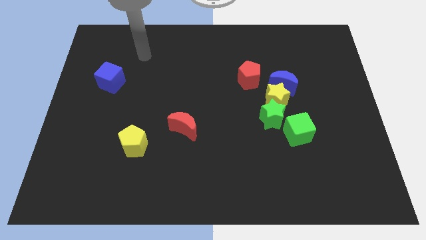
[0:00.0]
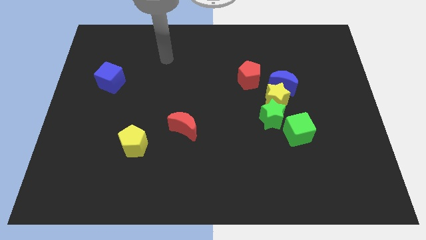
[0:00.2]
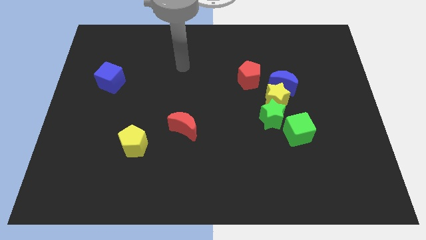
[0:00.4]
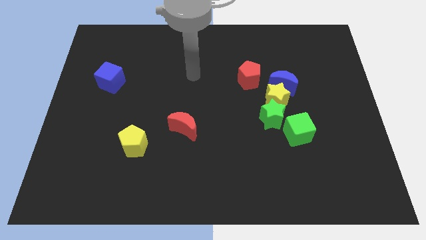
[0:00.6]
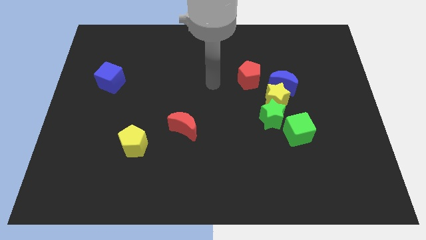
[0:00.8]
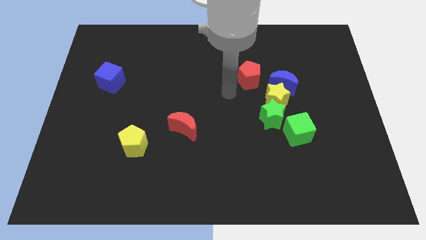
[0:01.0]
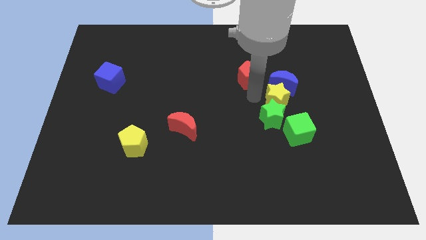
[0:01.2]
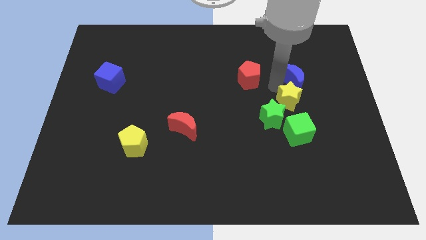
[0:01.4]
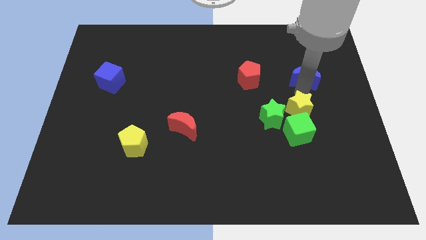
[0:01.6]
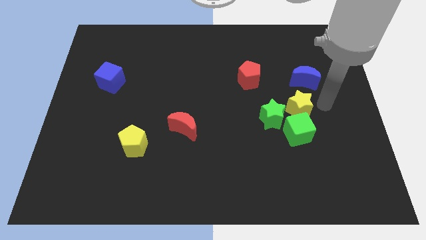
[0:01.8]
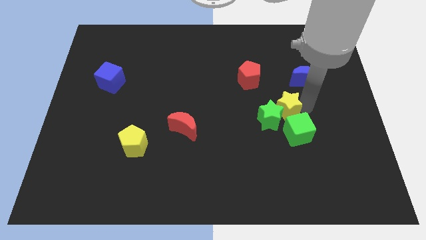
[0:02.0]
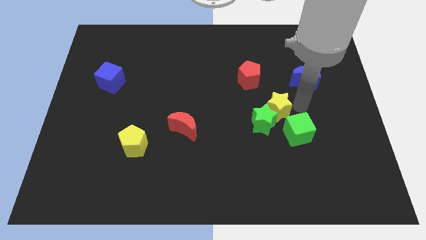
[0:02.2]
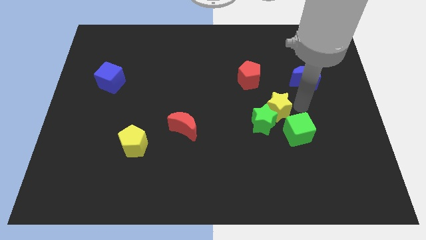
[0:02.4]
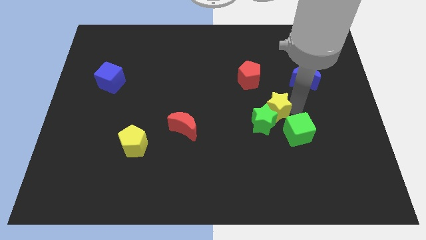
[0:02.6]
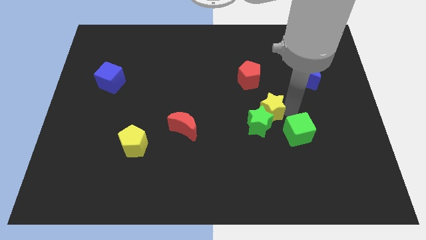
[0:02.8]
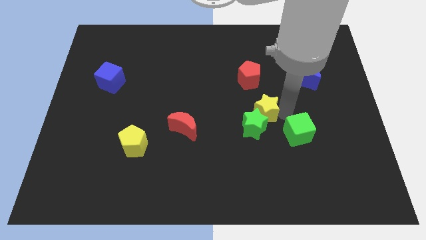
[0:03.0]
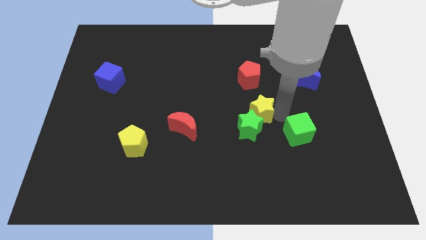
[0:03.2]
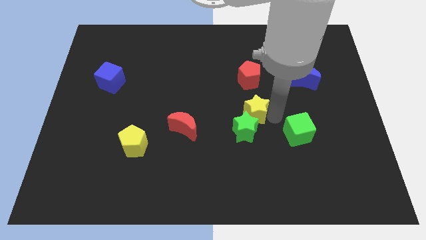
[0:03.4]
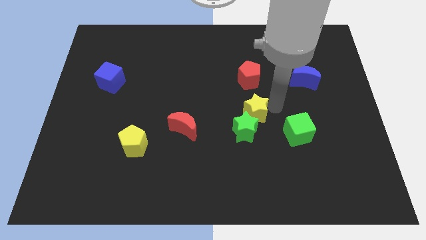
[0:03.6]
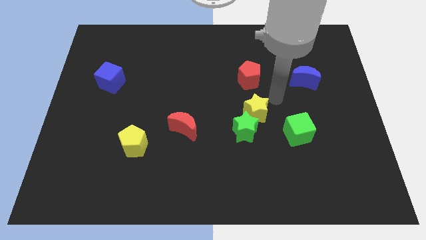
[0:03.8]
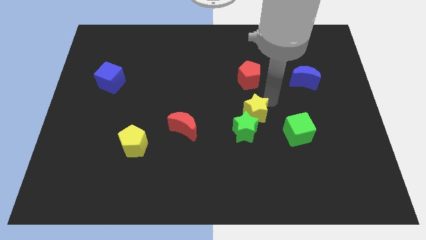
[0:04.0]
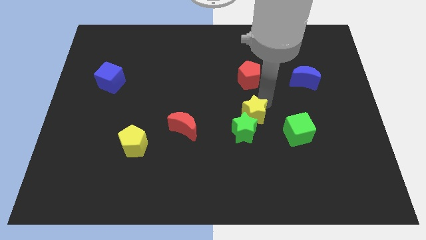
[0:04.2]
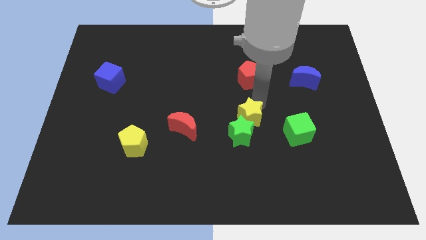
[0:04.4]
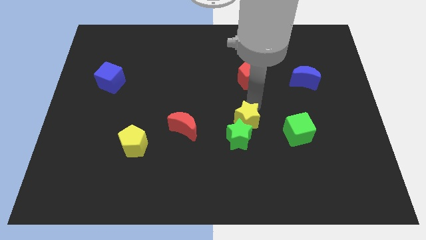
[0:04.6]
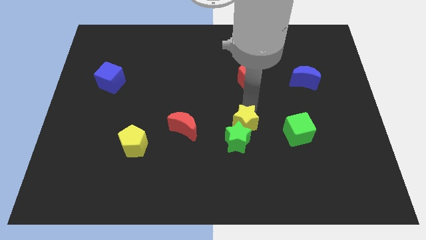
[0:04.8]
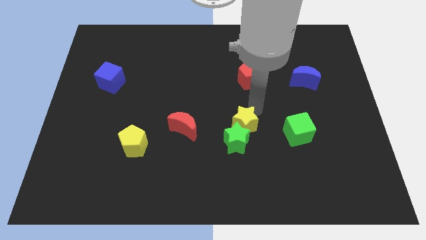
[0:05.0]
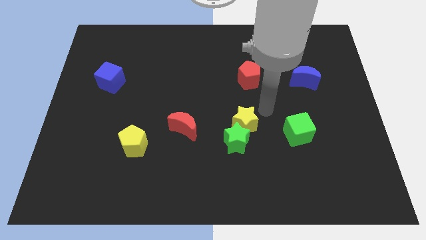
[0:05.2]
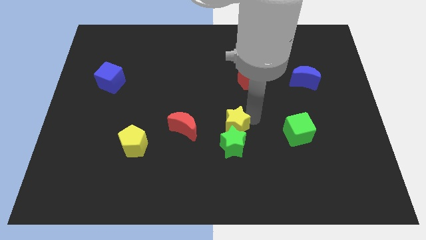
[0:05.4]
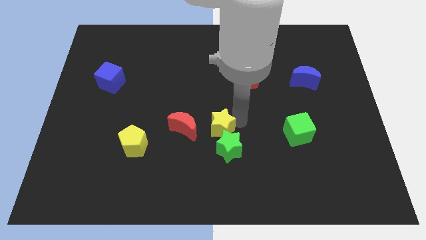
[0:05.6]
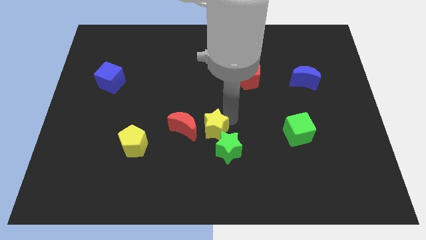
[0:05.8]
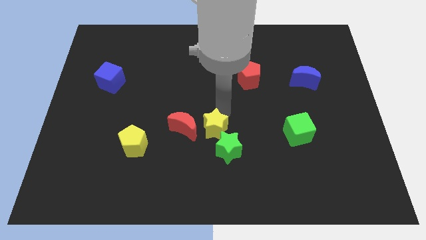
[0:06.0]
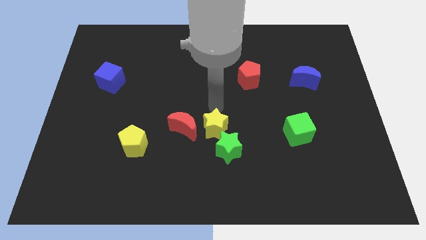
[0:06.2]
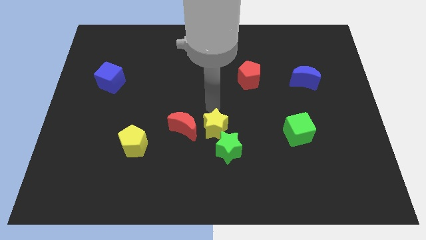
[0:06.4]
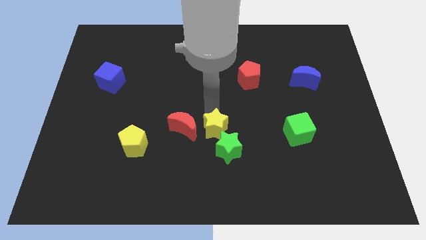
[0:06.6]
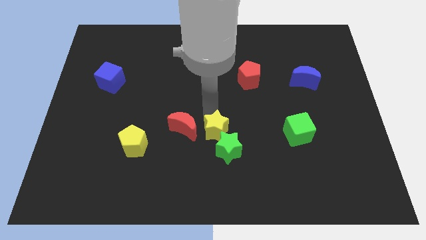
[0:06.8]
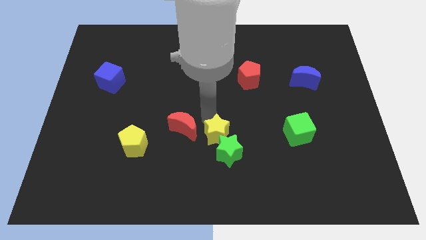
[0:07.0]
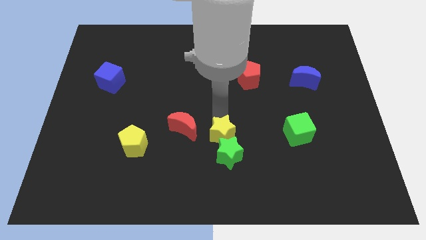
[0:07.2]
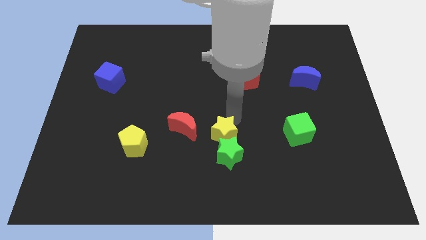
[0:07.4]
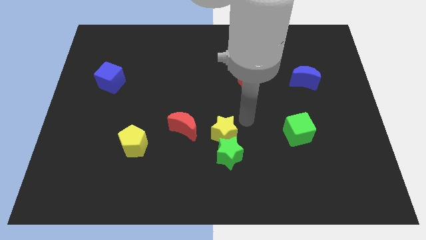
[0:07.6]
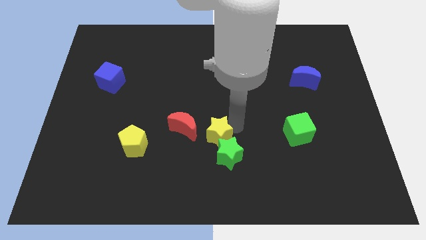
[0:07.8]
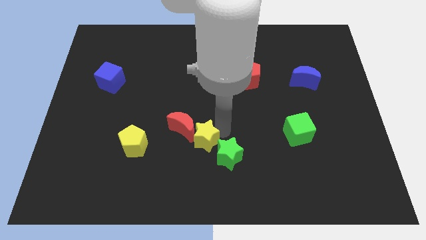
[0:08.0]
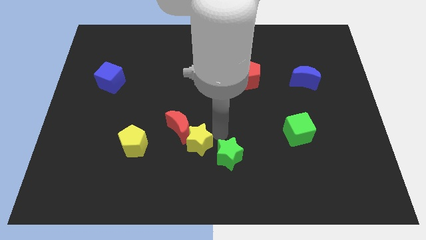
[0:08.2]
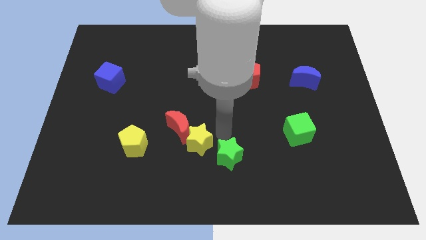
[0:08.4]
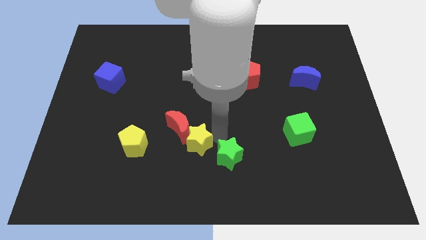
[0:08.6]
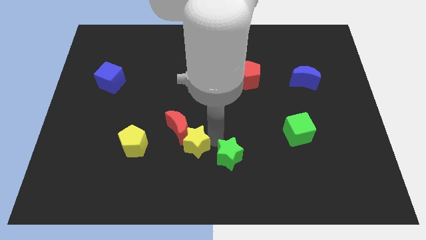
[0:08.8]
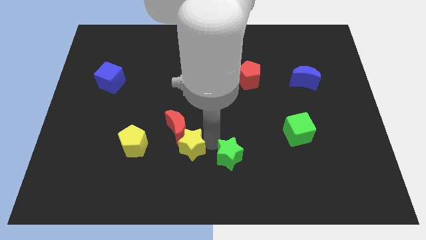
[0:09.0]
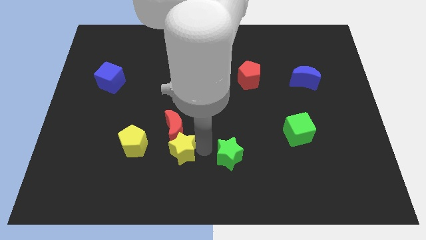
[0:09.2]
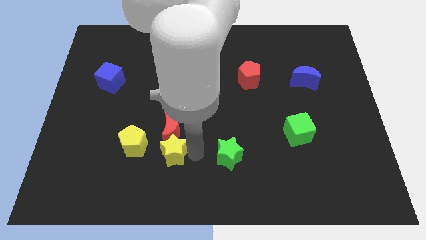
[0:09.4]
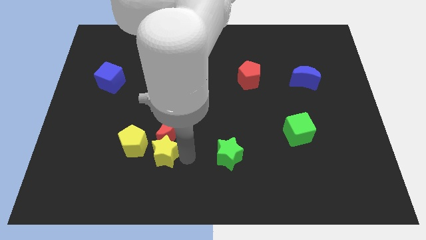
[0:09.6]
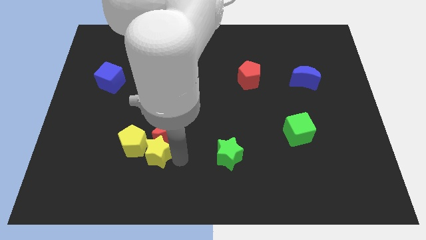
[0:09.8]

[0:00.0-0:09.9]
move the yellow star to the yellow pentagon
